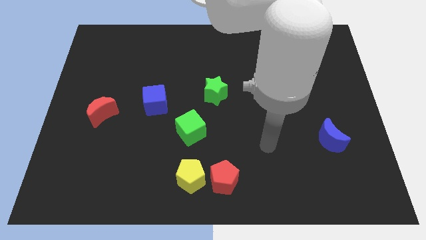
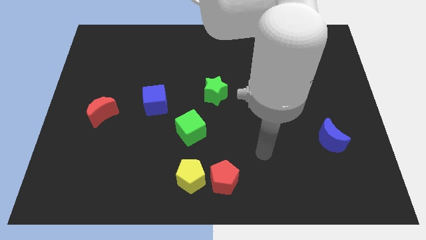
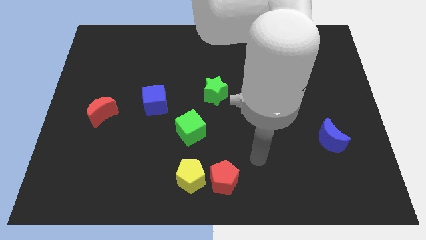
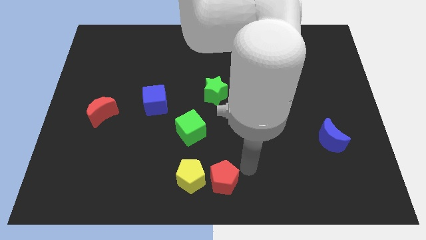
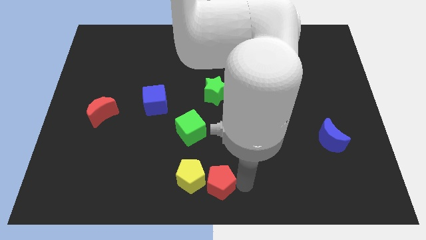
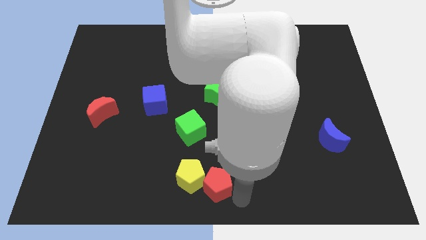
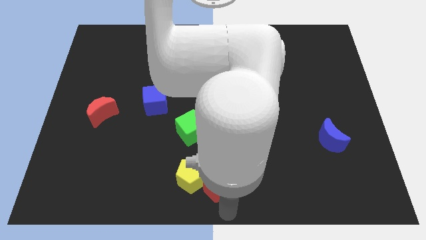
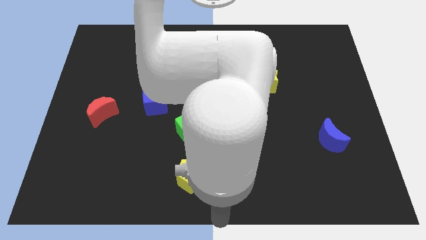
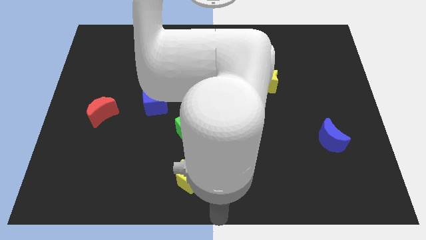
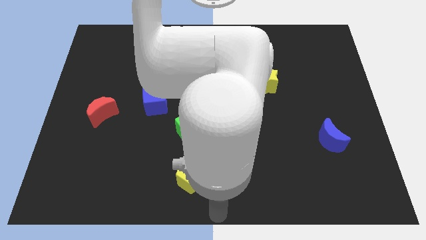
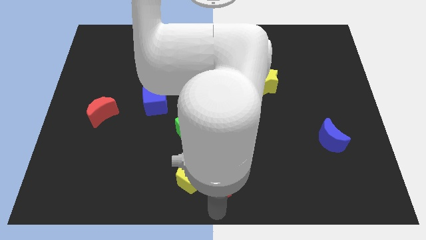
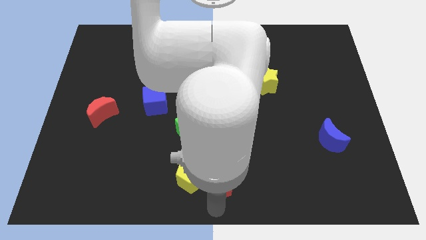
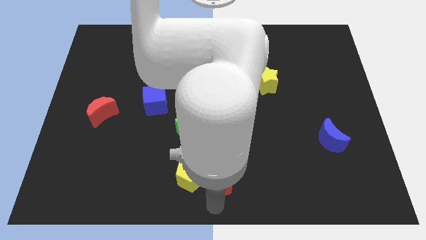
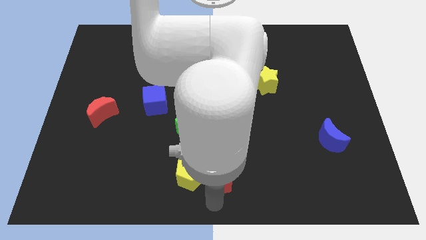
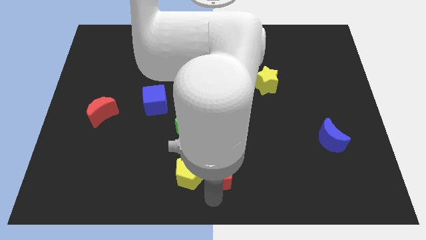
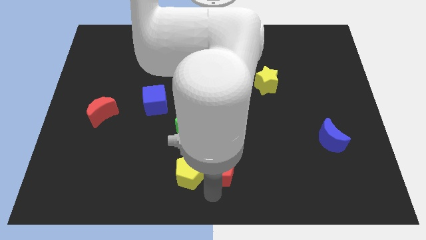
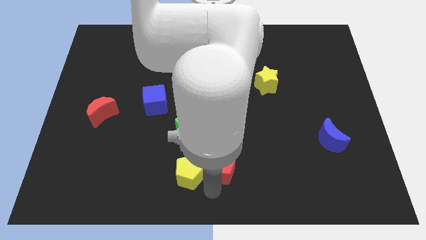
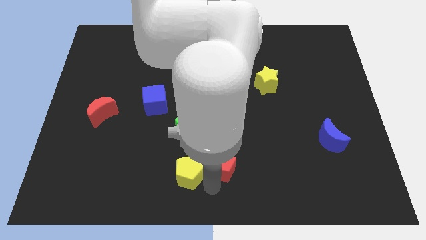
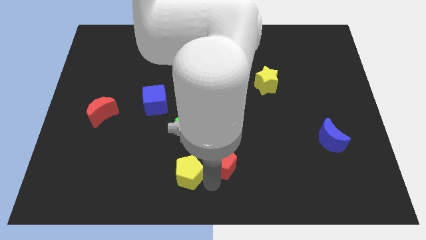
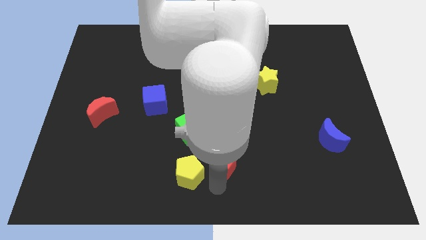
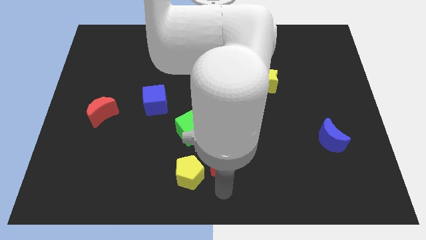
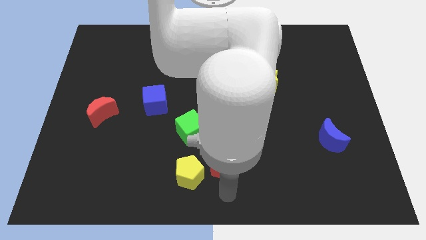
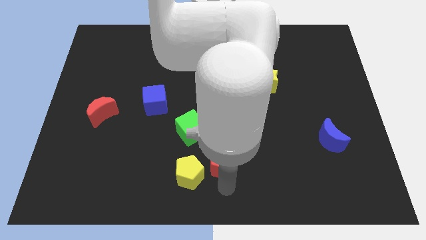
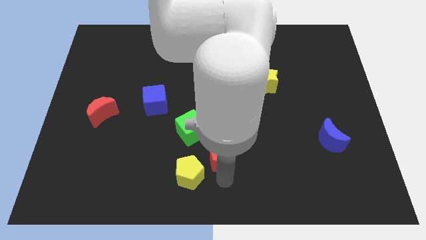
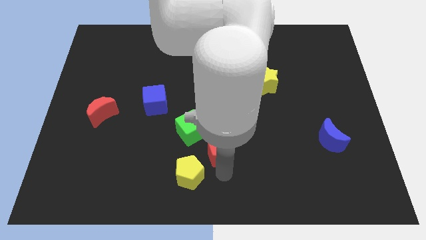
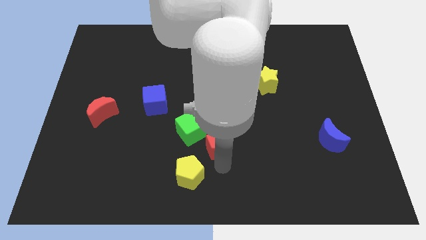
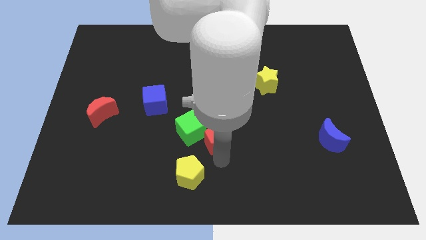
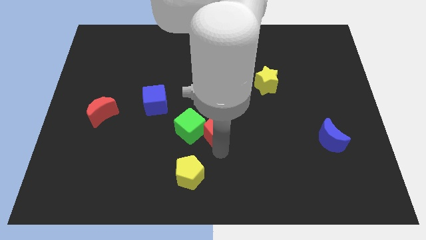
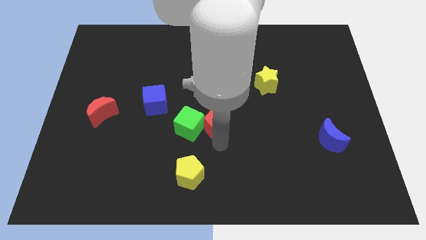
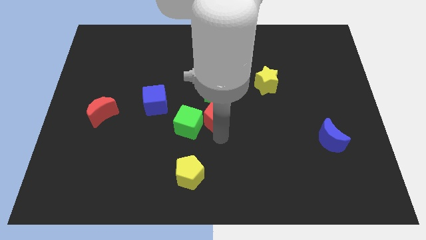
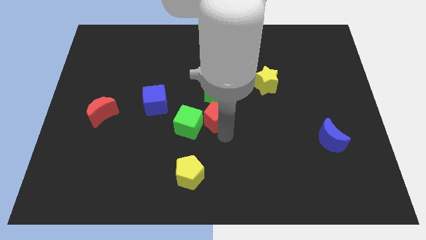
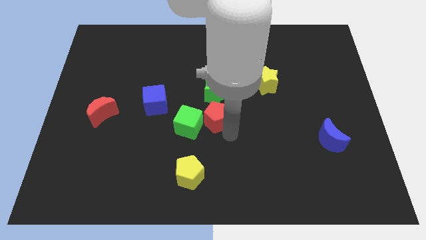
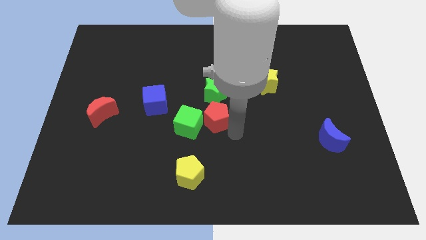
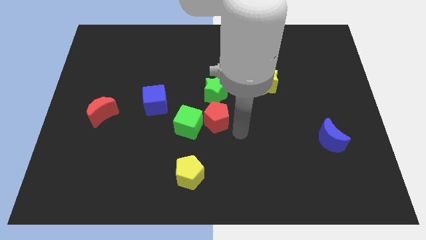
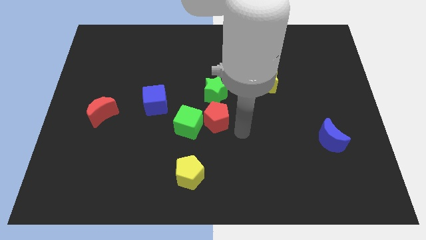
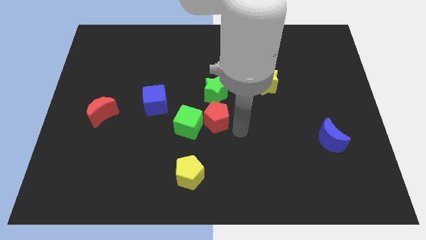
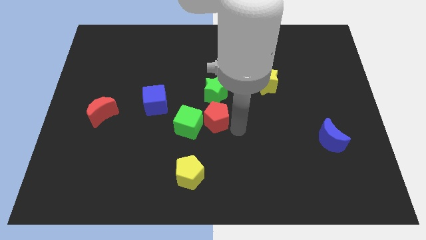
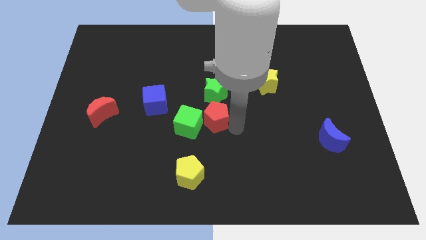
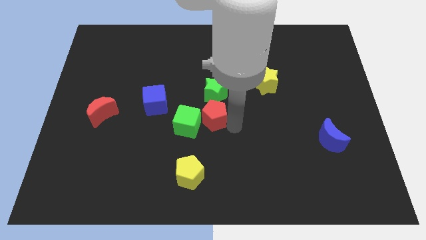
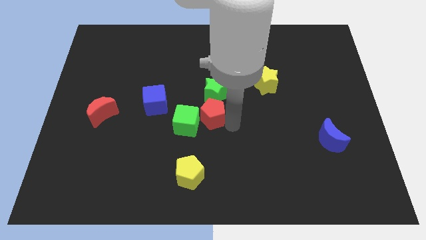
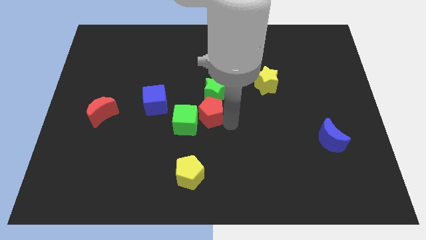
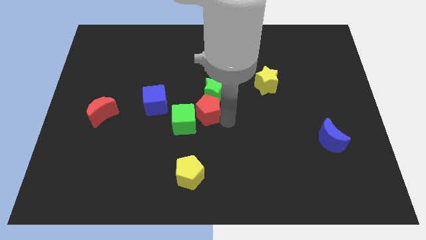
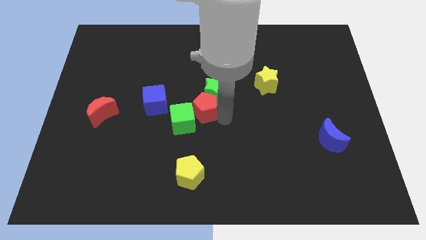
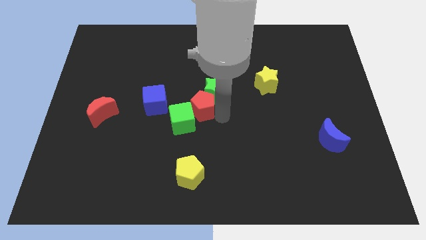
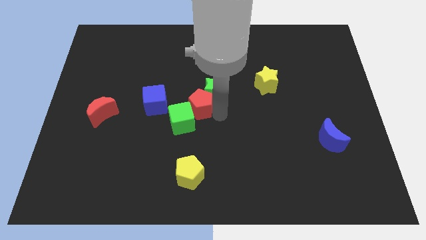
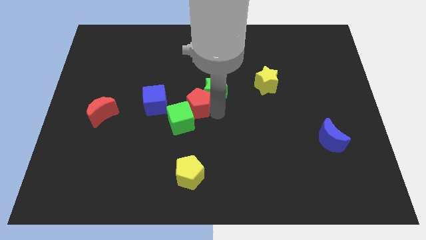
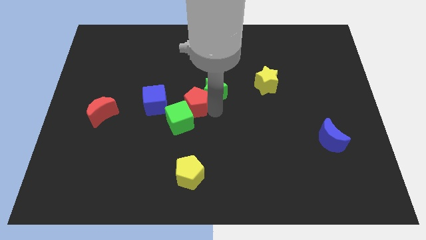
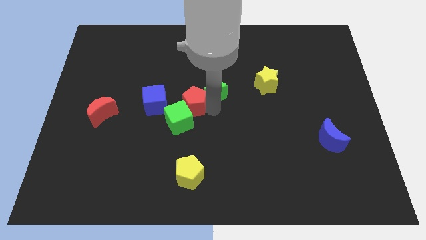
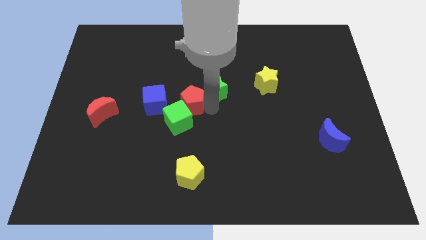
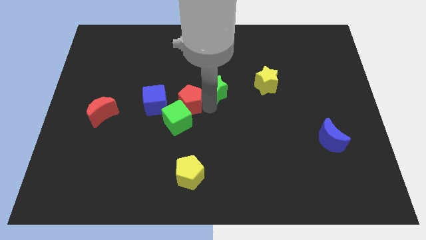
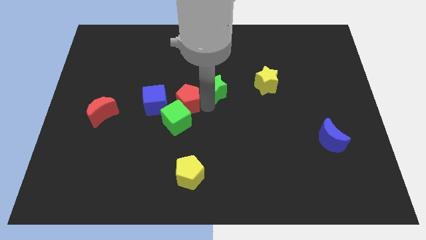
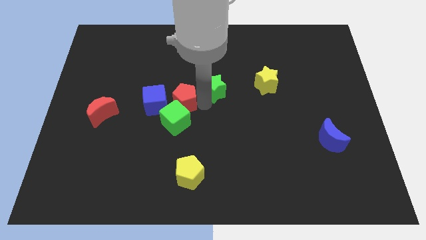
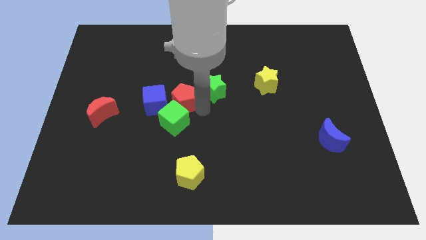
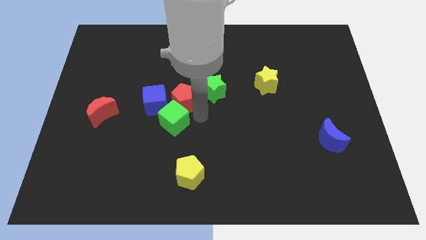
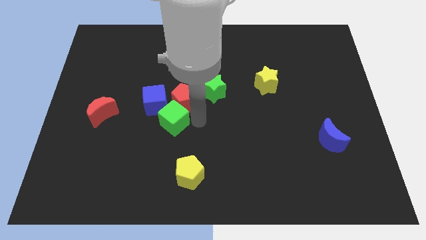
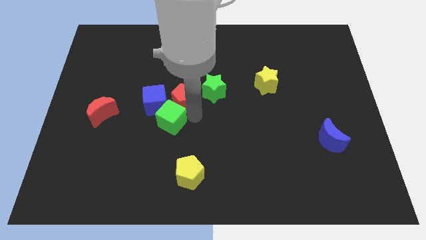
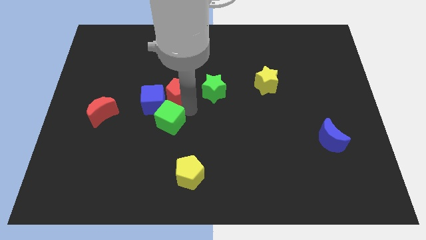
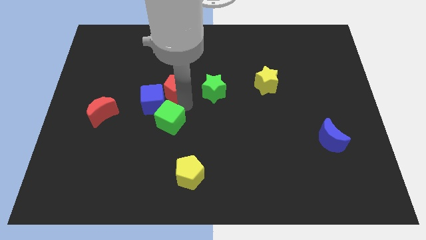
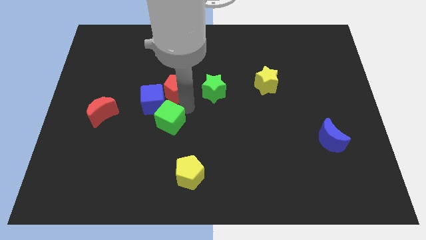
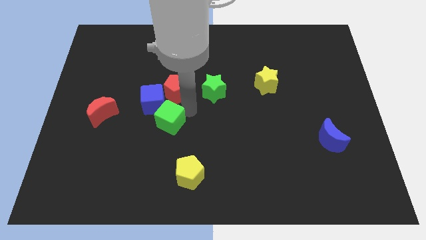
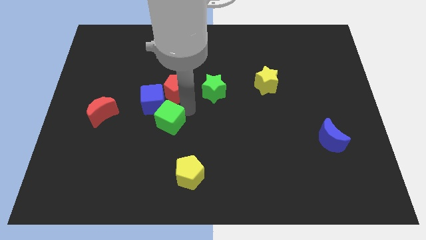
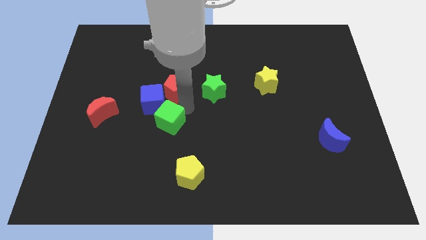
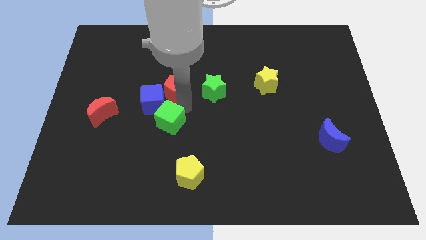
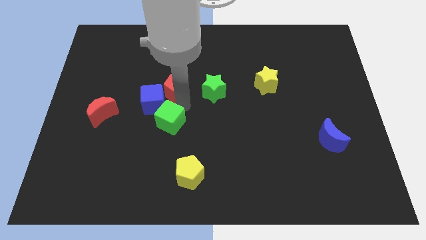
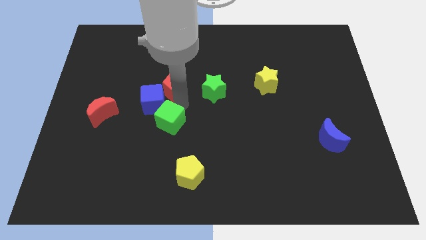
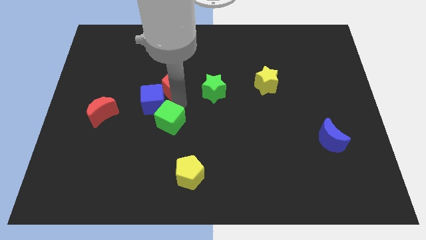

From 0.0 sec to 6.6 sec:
slide the red pentagon to the top of the blue cube

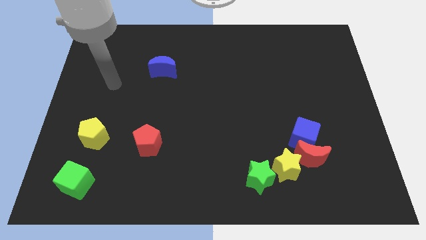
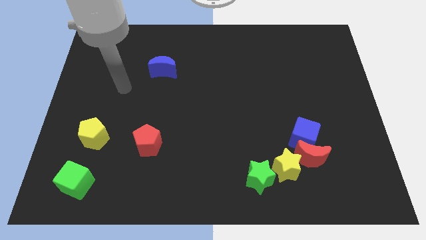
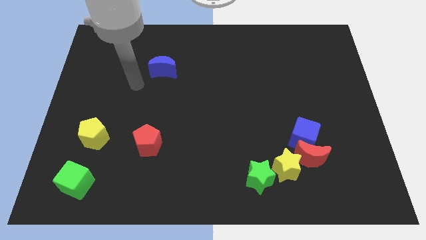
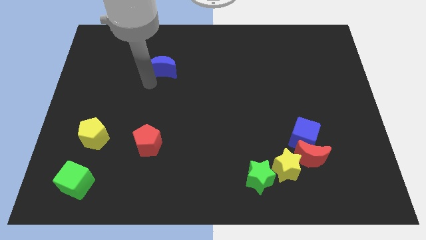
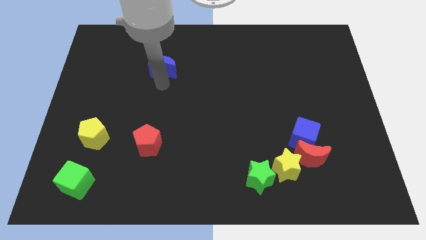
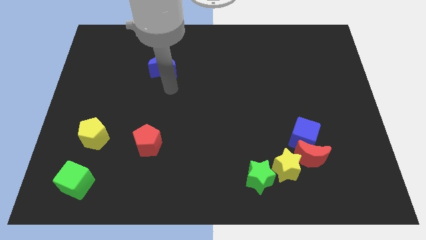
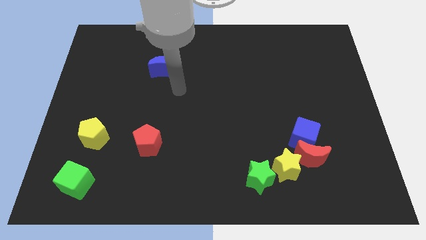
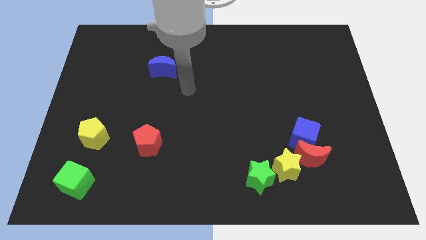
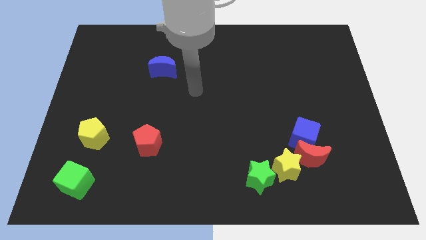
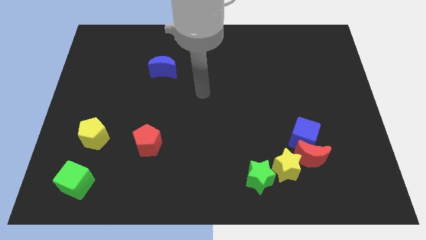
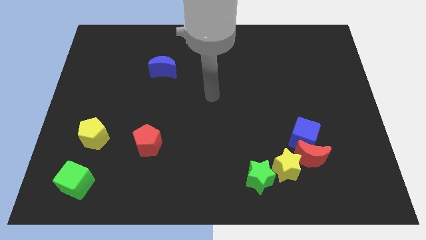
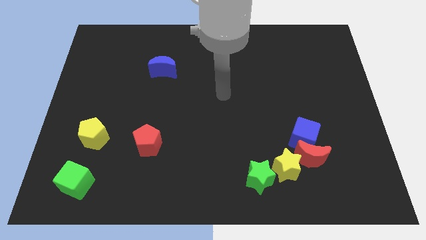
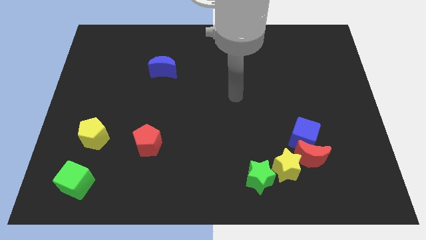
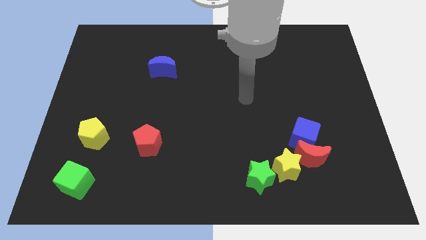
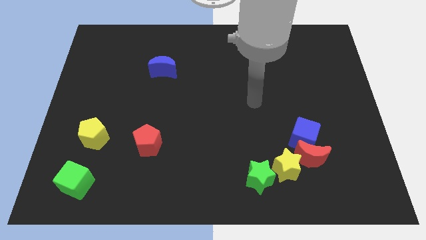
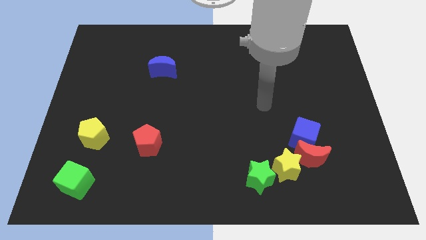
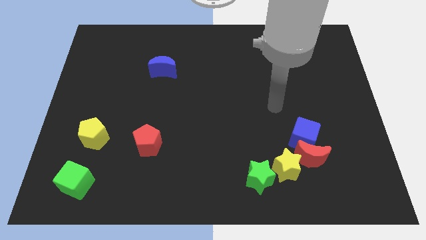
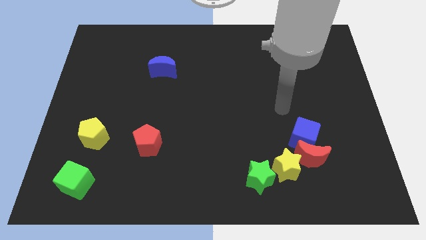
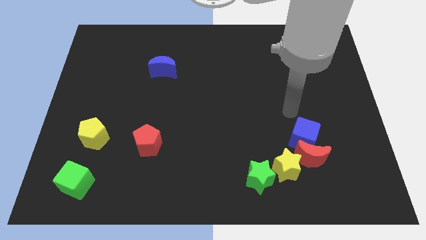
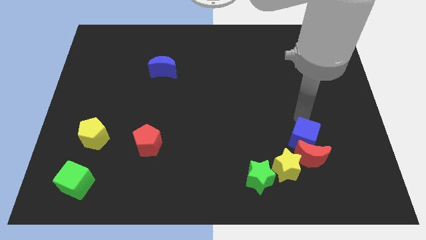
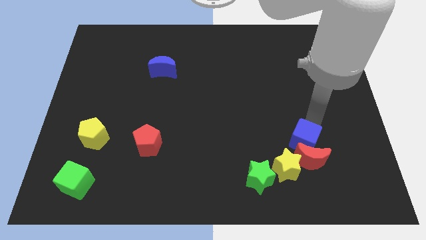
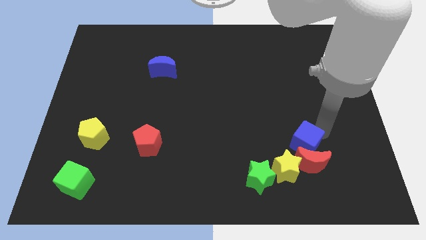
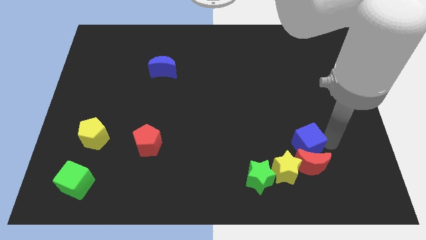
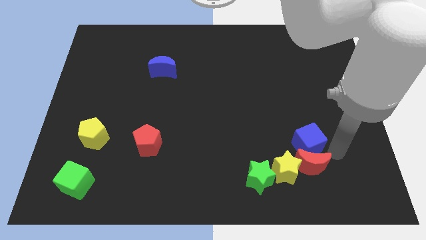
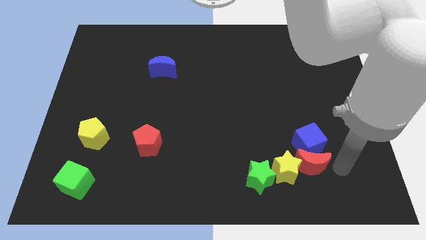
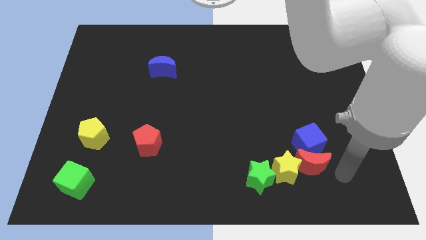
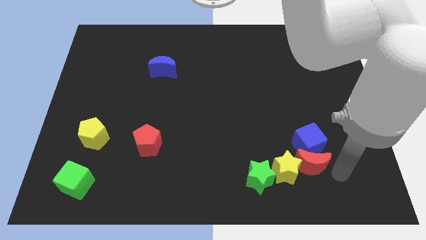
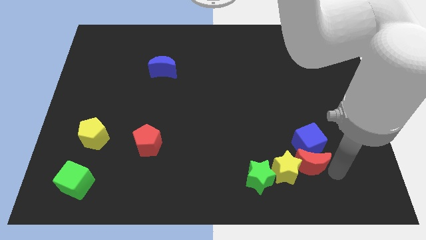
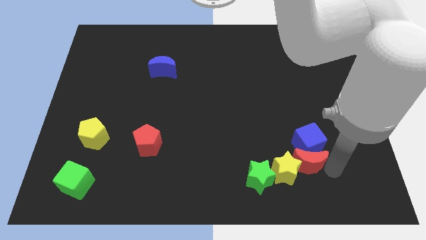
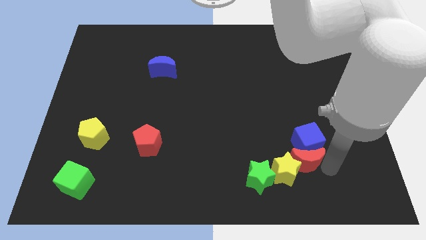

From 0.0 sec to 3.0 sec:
move the red moon to the top right of the green star
